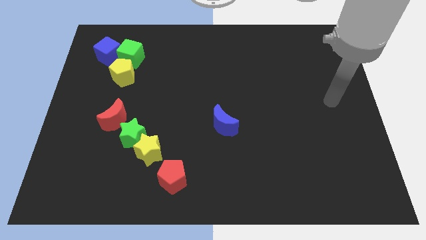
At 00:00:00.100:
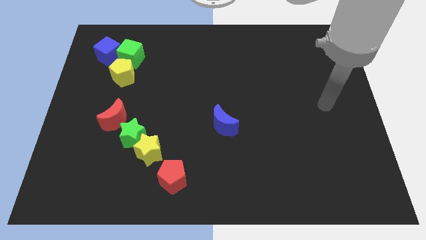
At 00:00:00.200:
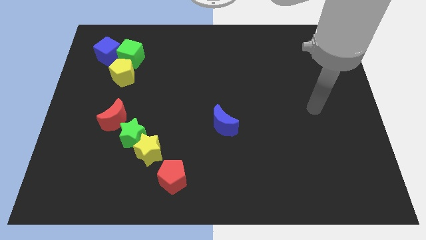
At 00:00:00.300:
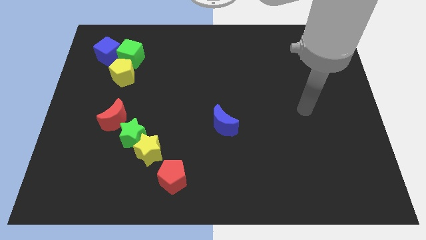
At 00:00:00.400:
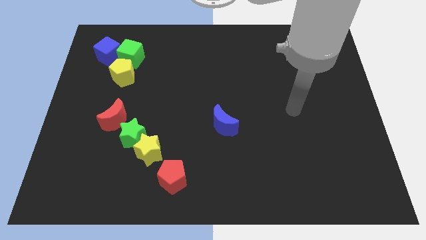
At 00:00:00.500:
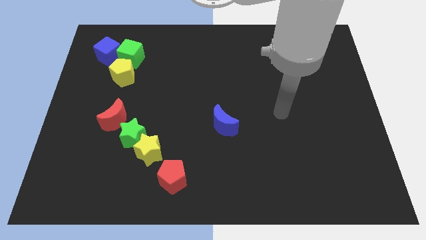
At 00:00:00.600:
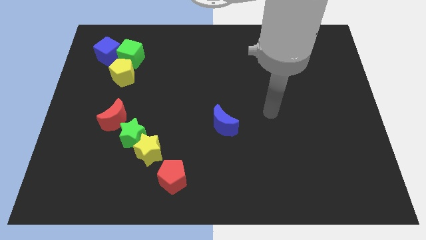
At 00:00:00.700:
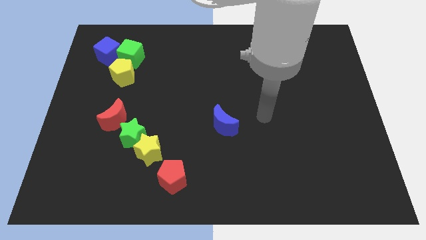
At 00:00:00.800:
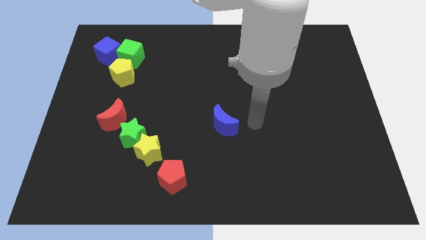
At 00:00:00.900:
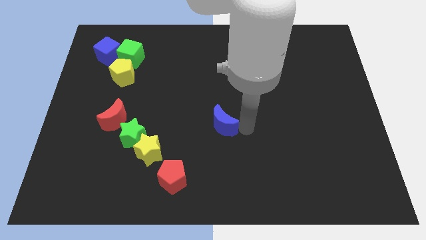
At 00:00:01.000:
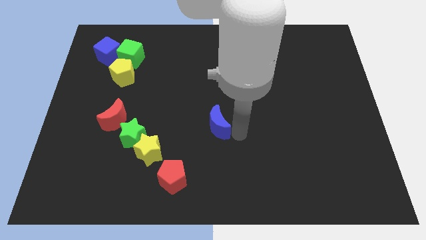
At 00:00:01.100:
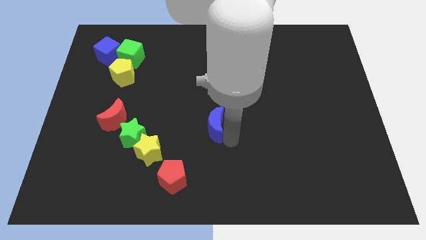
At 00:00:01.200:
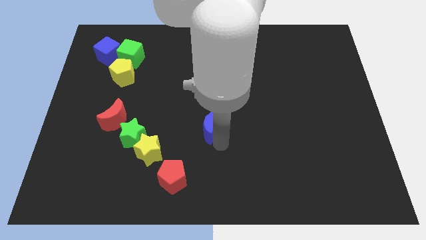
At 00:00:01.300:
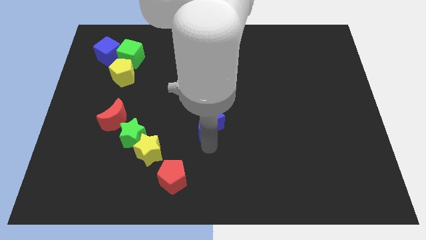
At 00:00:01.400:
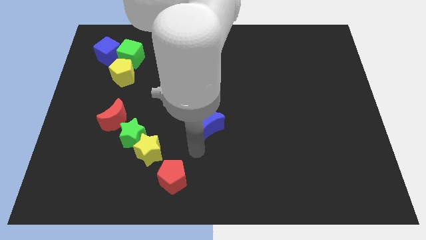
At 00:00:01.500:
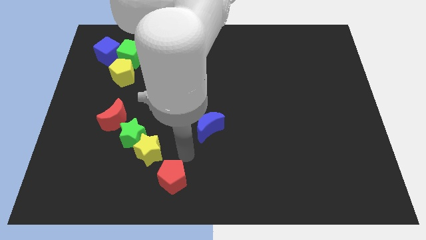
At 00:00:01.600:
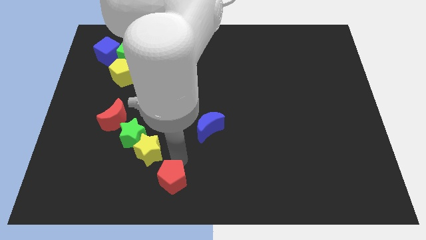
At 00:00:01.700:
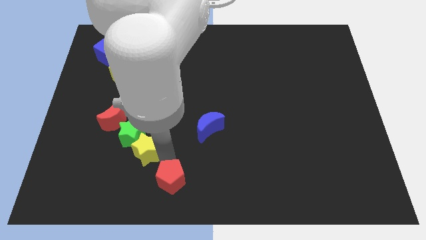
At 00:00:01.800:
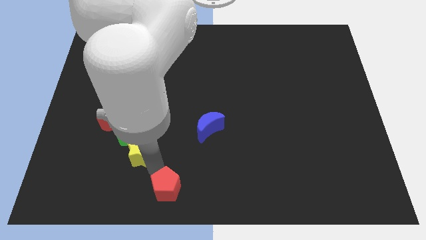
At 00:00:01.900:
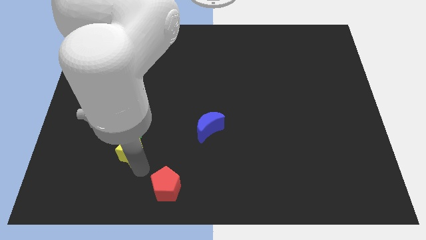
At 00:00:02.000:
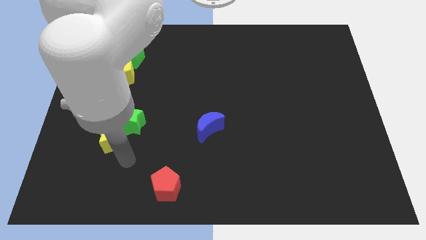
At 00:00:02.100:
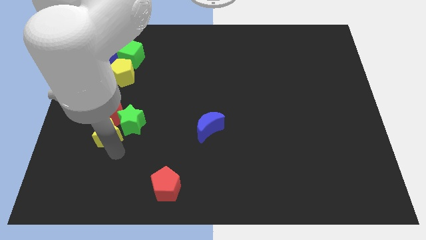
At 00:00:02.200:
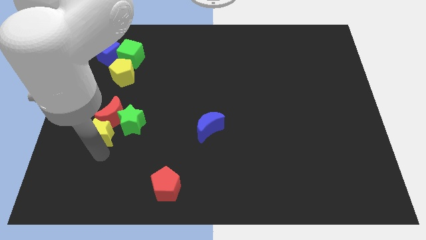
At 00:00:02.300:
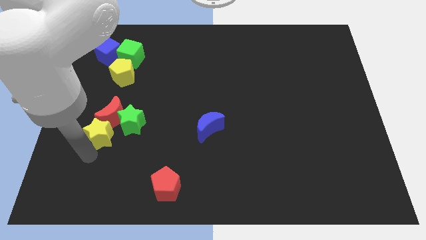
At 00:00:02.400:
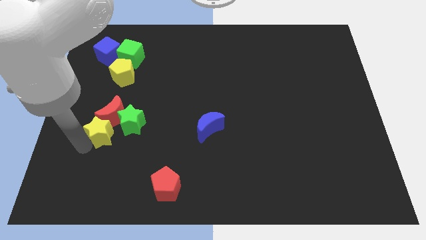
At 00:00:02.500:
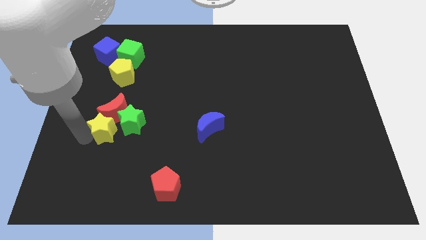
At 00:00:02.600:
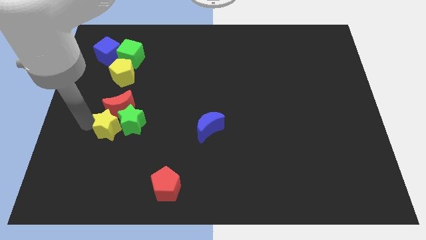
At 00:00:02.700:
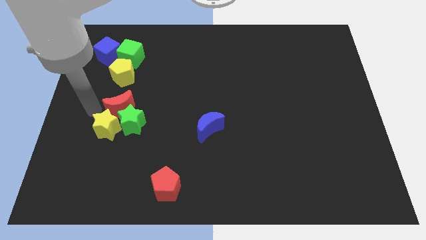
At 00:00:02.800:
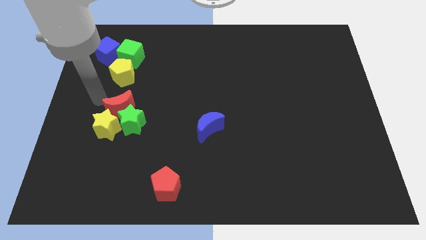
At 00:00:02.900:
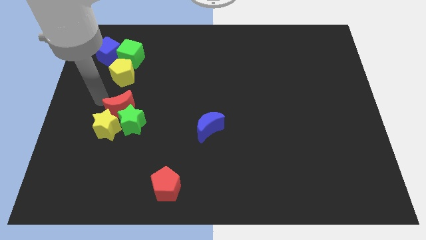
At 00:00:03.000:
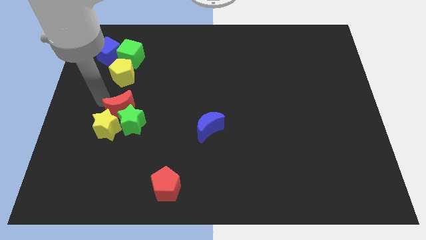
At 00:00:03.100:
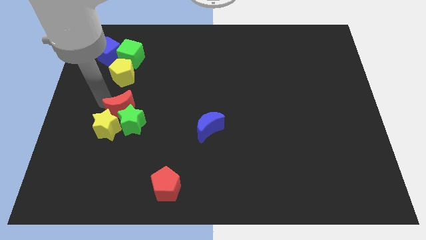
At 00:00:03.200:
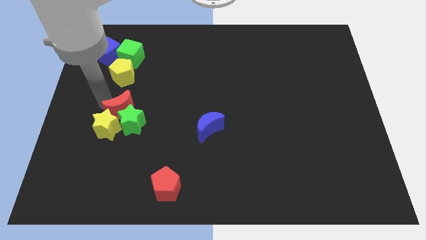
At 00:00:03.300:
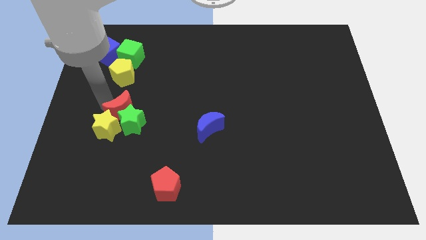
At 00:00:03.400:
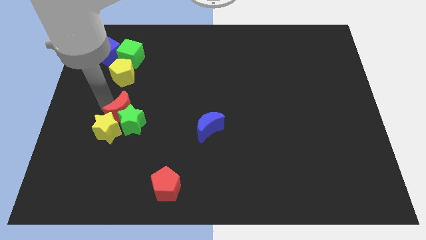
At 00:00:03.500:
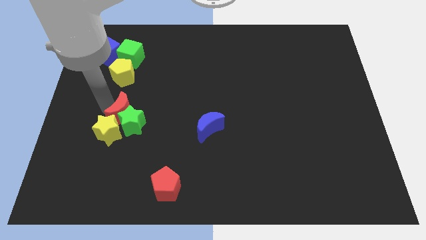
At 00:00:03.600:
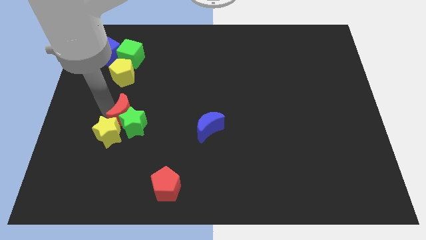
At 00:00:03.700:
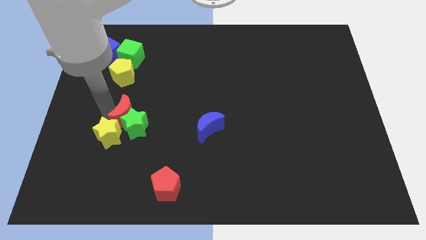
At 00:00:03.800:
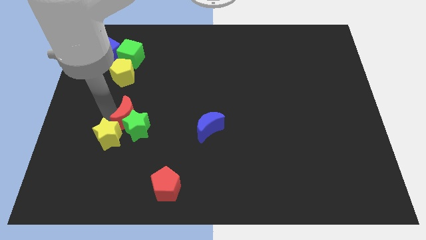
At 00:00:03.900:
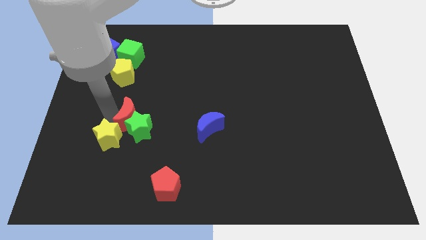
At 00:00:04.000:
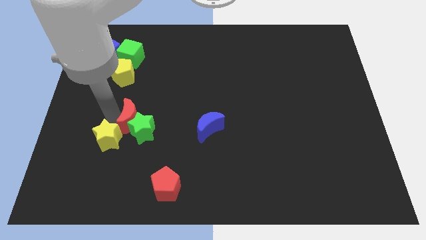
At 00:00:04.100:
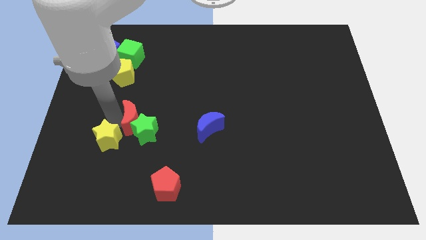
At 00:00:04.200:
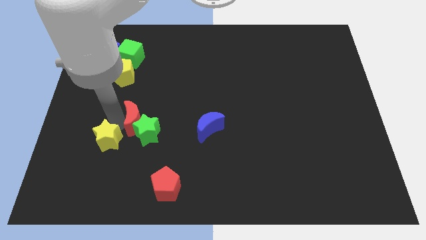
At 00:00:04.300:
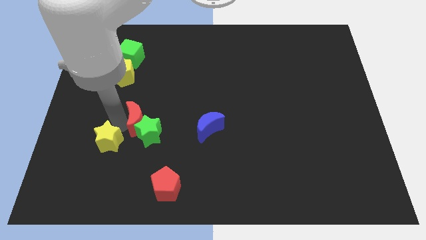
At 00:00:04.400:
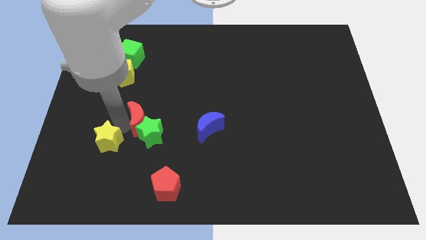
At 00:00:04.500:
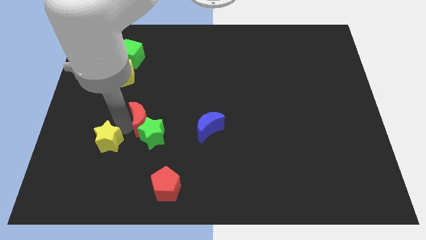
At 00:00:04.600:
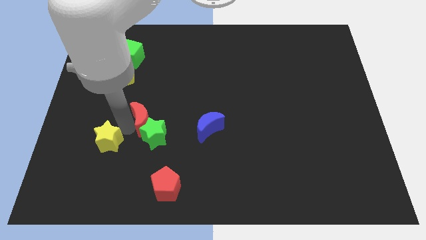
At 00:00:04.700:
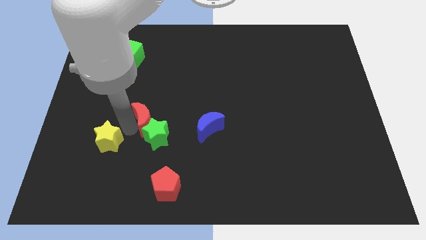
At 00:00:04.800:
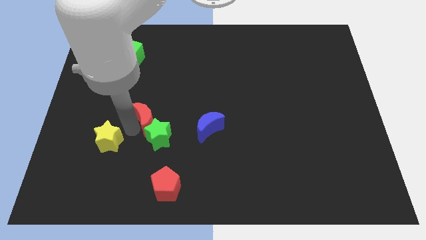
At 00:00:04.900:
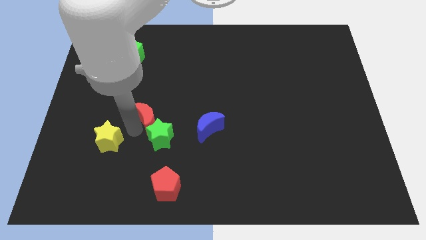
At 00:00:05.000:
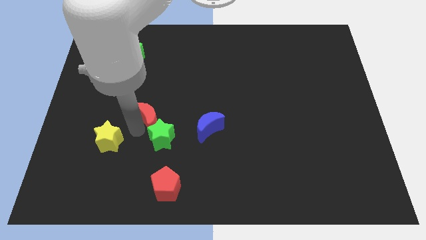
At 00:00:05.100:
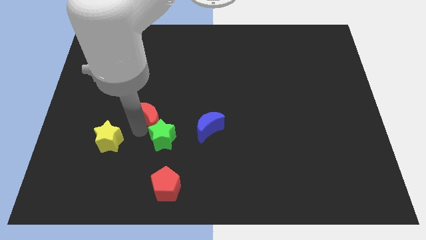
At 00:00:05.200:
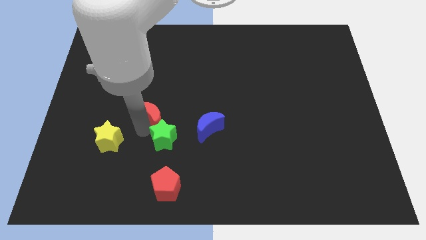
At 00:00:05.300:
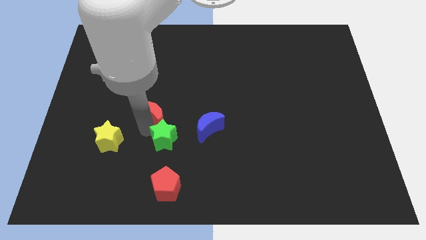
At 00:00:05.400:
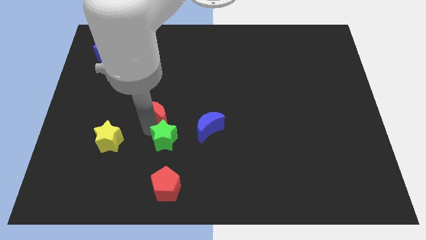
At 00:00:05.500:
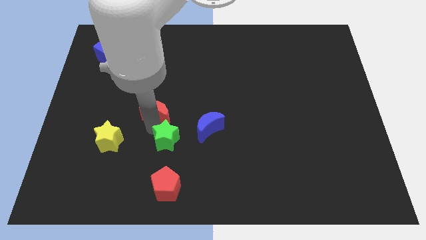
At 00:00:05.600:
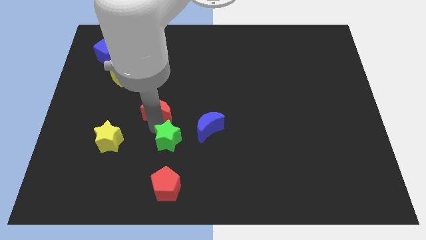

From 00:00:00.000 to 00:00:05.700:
push the red moon a little up and then right

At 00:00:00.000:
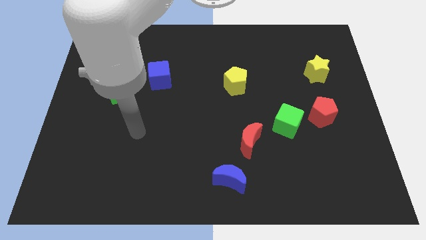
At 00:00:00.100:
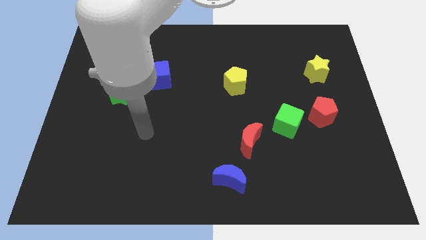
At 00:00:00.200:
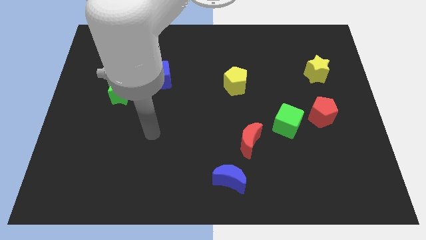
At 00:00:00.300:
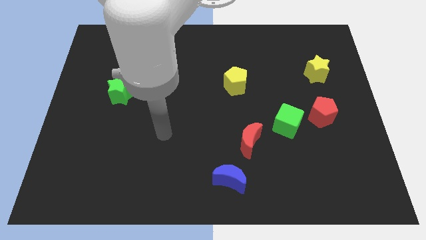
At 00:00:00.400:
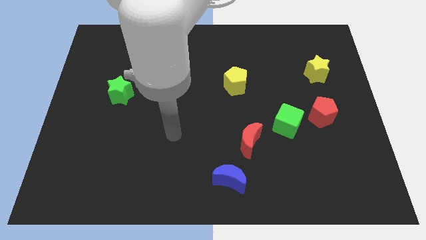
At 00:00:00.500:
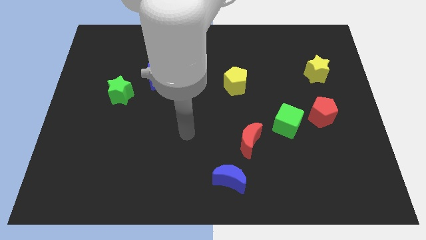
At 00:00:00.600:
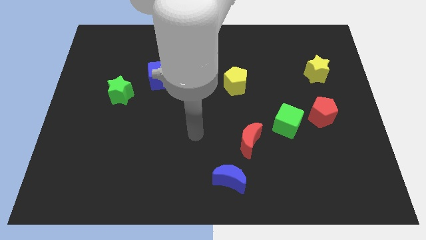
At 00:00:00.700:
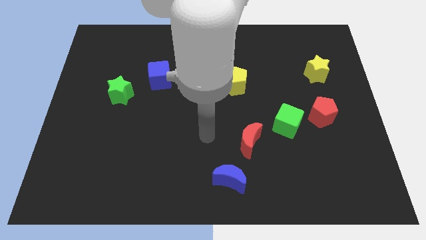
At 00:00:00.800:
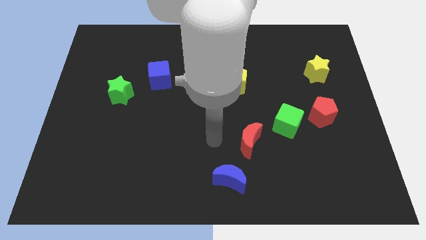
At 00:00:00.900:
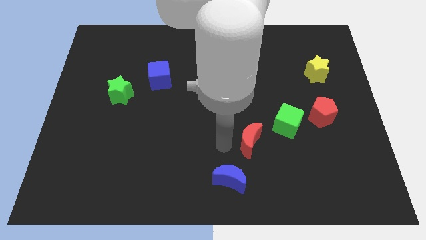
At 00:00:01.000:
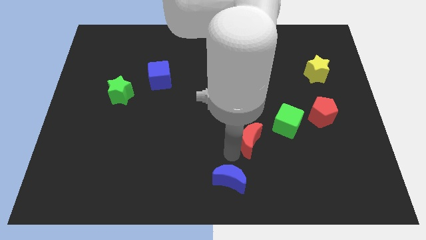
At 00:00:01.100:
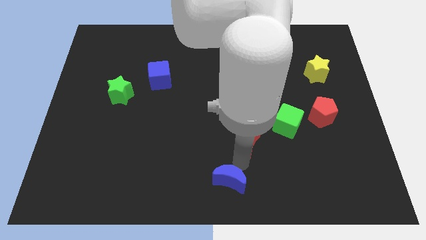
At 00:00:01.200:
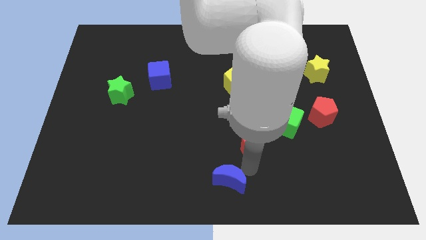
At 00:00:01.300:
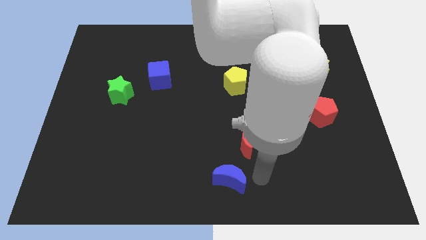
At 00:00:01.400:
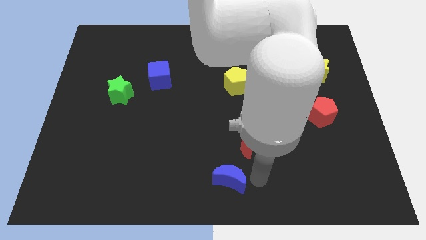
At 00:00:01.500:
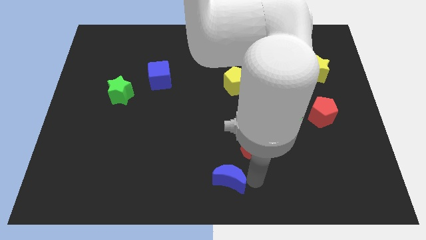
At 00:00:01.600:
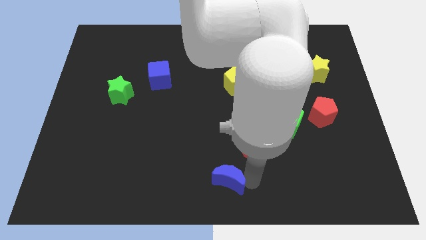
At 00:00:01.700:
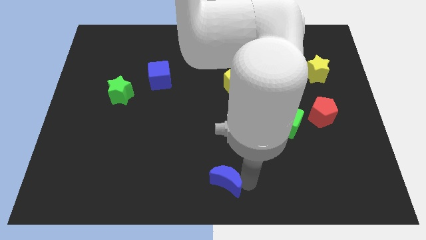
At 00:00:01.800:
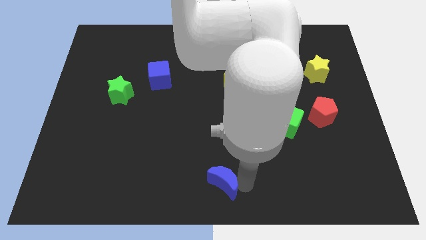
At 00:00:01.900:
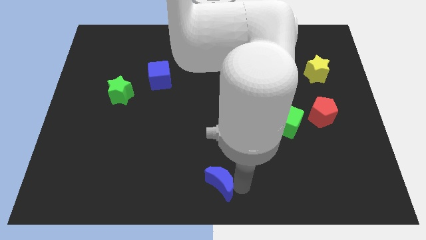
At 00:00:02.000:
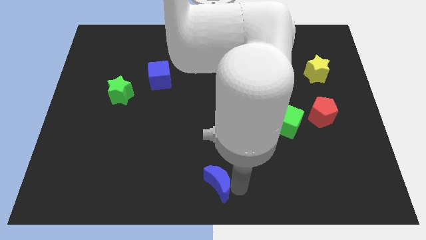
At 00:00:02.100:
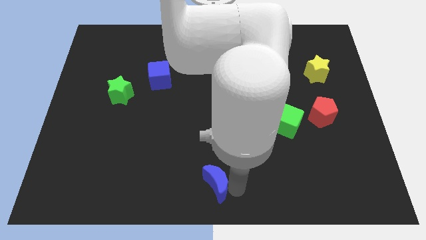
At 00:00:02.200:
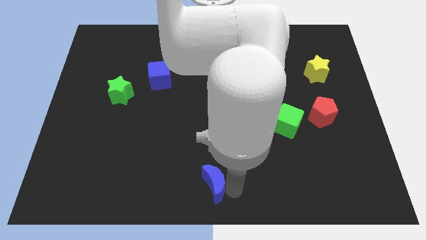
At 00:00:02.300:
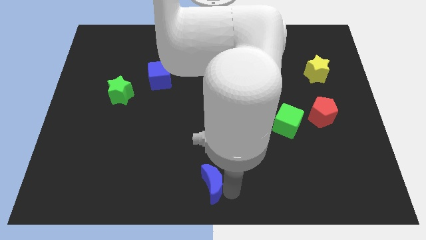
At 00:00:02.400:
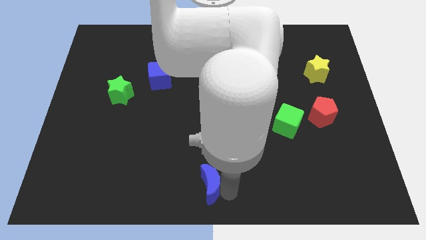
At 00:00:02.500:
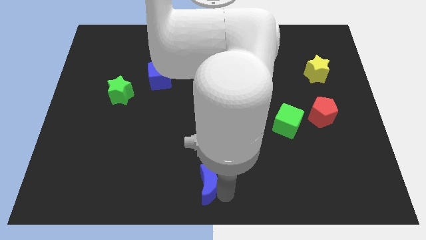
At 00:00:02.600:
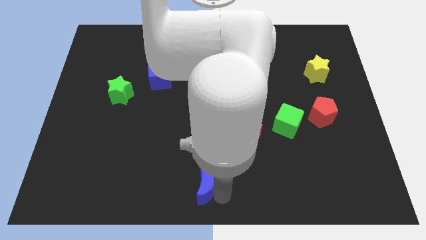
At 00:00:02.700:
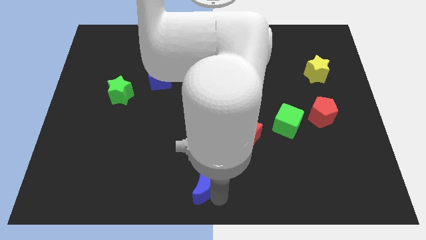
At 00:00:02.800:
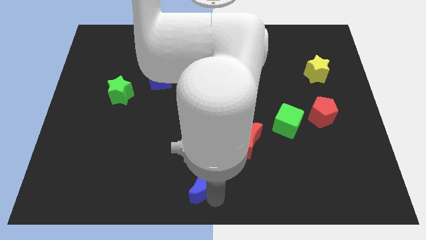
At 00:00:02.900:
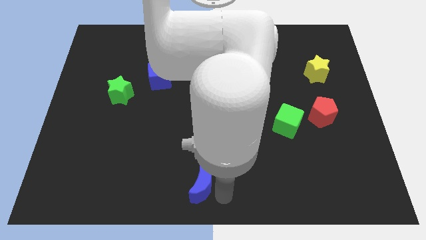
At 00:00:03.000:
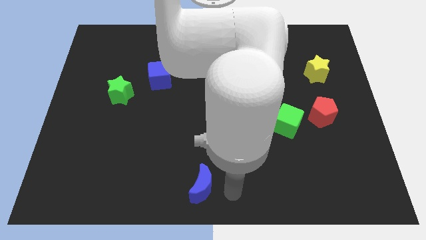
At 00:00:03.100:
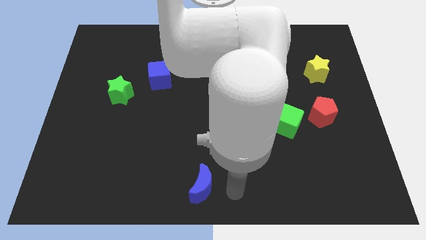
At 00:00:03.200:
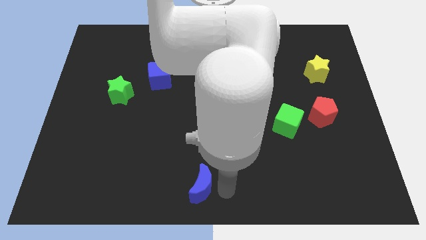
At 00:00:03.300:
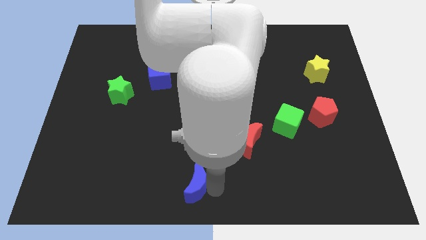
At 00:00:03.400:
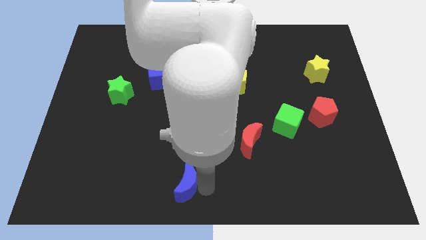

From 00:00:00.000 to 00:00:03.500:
move the blue moon left somewhat
